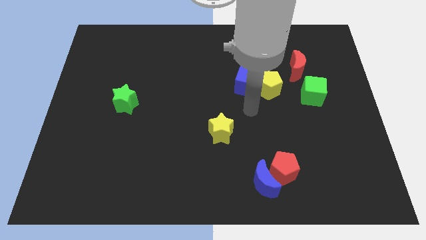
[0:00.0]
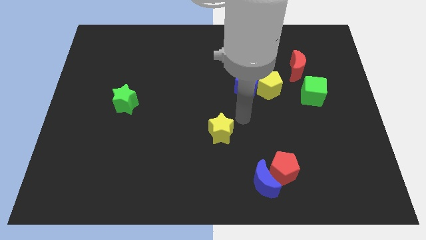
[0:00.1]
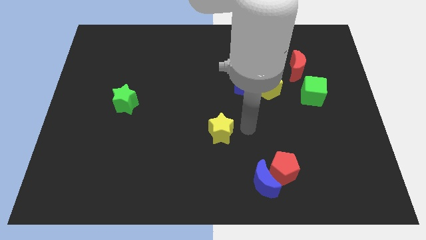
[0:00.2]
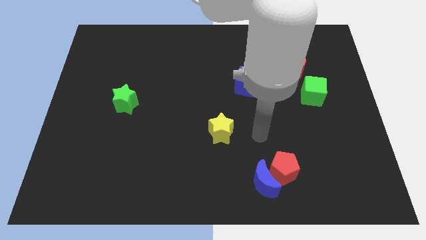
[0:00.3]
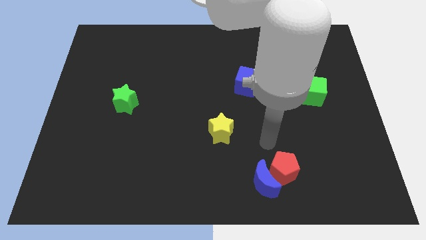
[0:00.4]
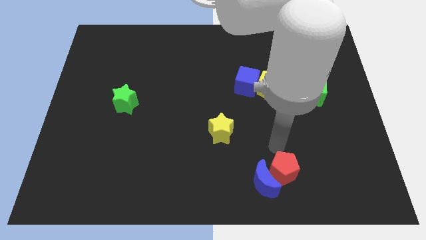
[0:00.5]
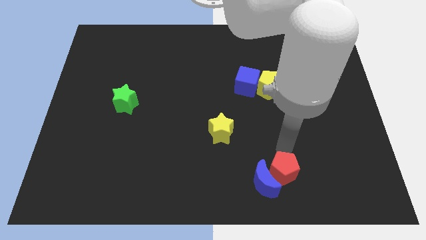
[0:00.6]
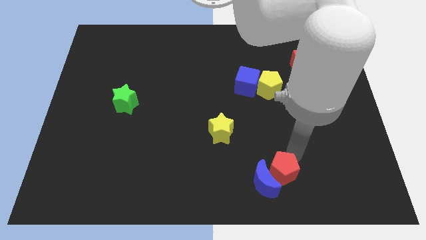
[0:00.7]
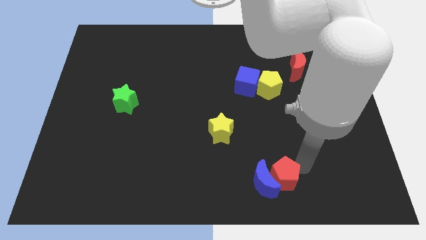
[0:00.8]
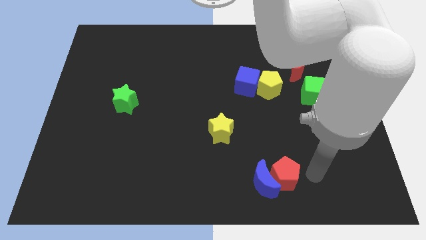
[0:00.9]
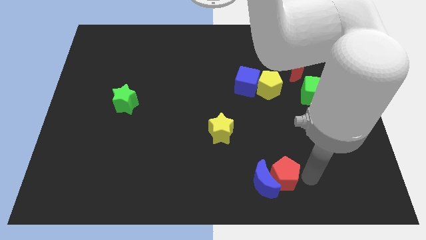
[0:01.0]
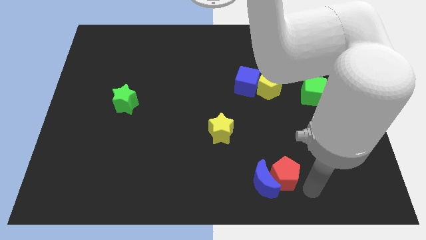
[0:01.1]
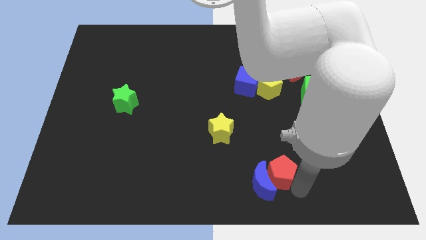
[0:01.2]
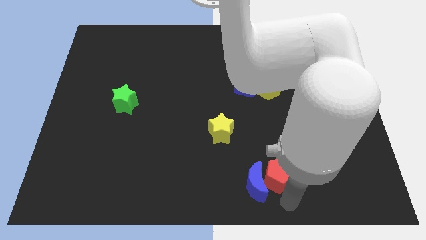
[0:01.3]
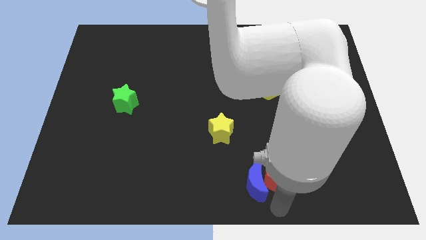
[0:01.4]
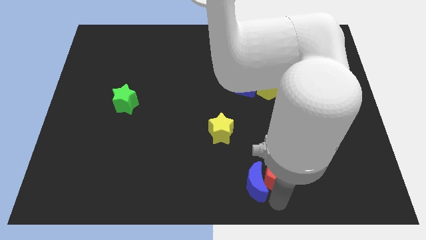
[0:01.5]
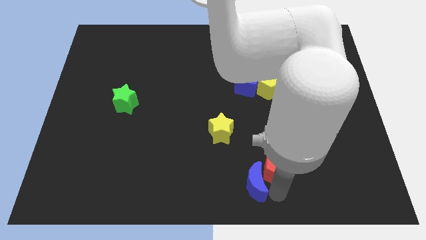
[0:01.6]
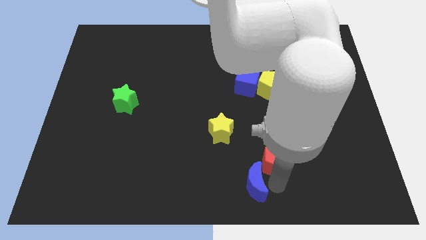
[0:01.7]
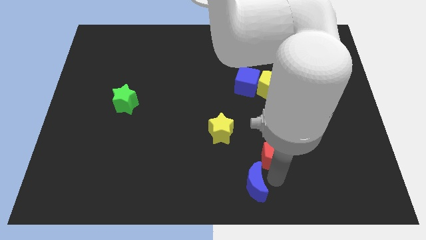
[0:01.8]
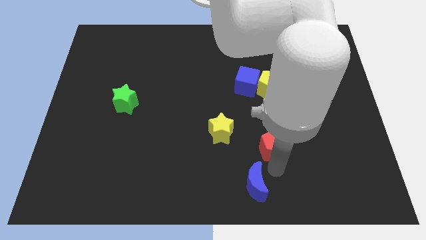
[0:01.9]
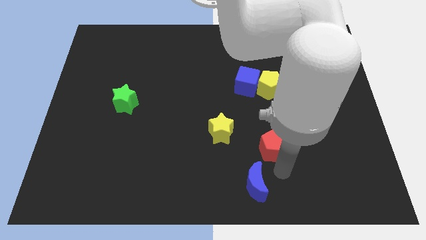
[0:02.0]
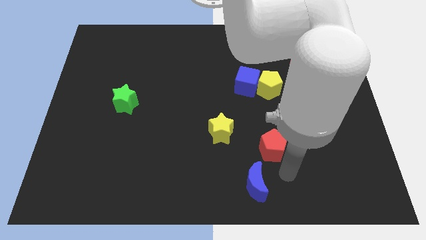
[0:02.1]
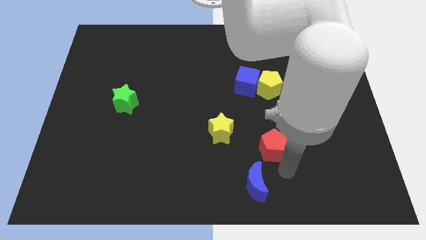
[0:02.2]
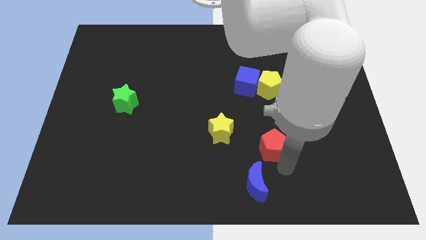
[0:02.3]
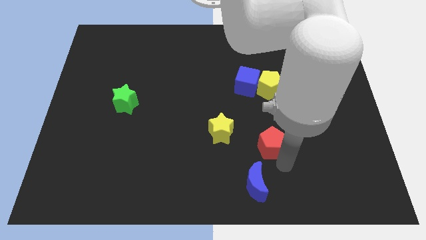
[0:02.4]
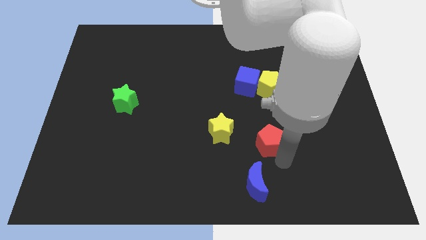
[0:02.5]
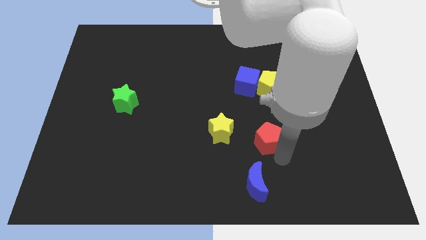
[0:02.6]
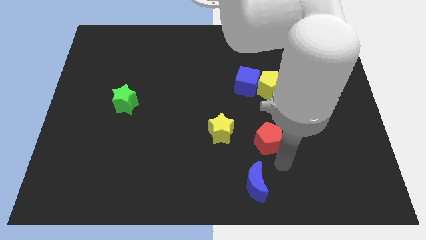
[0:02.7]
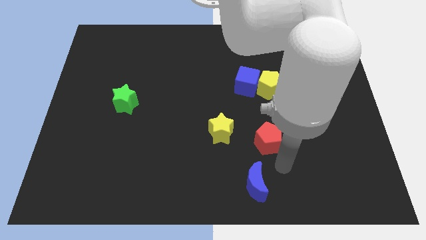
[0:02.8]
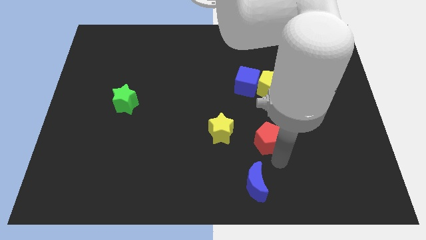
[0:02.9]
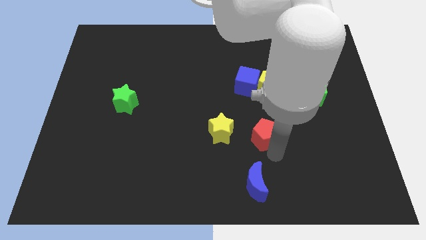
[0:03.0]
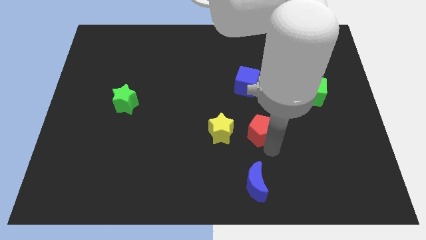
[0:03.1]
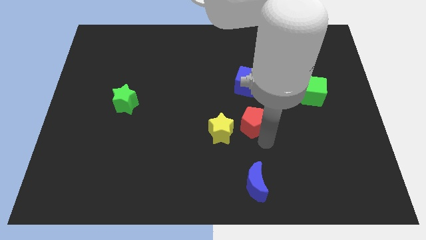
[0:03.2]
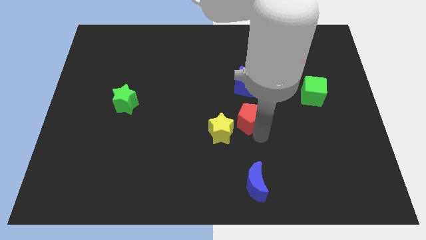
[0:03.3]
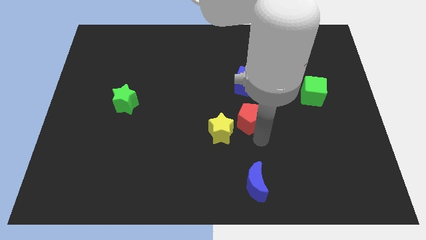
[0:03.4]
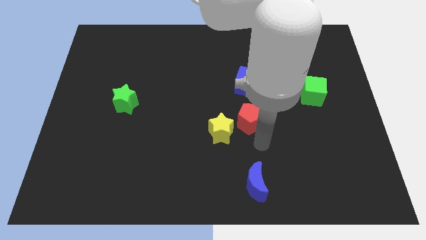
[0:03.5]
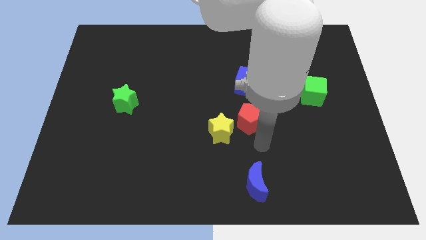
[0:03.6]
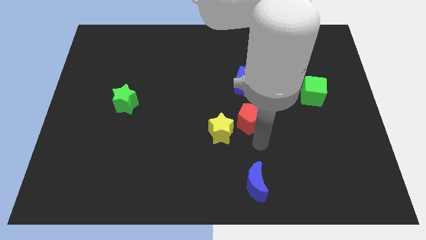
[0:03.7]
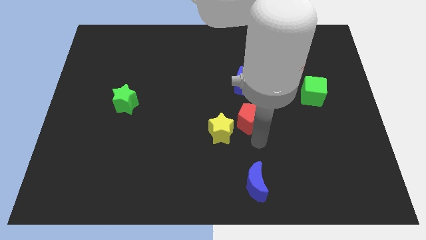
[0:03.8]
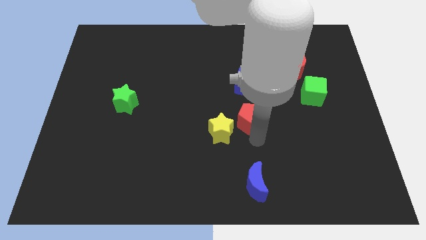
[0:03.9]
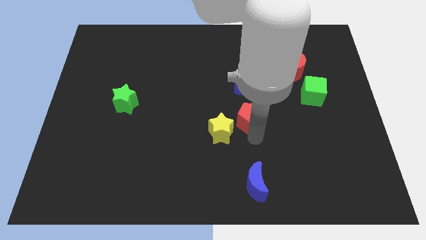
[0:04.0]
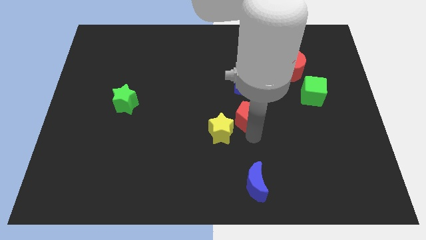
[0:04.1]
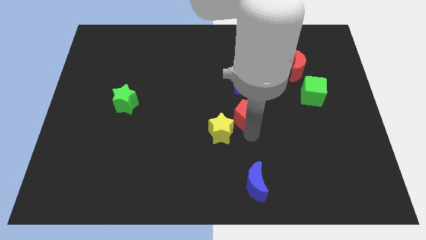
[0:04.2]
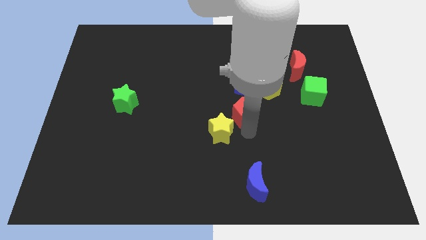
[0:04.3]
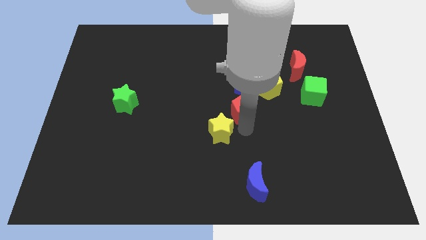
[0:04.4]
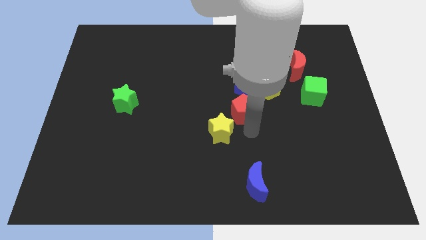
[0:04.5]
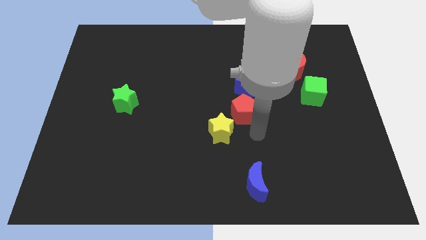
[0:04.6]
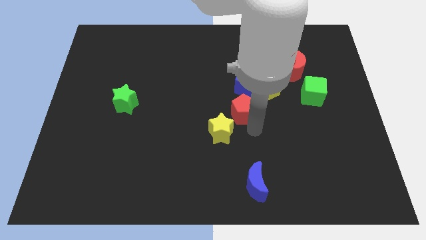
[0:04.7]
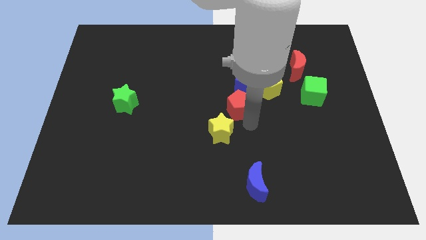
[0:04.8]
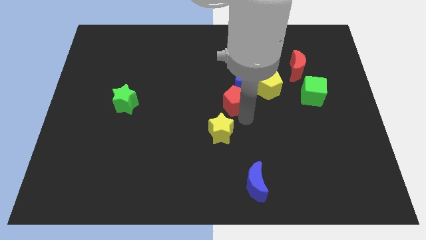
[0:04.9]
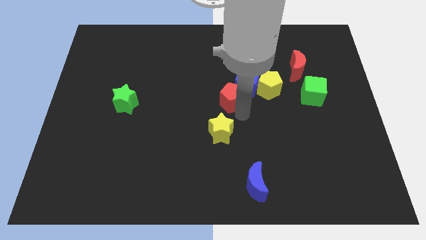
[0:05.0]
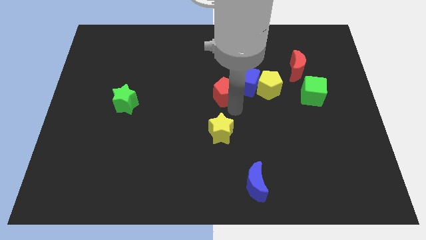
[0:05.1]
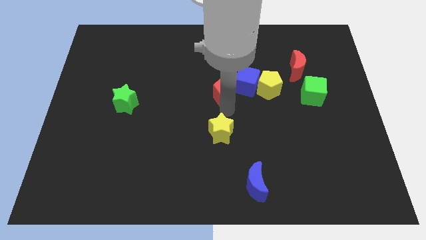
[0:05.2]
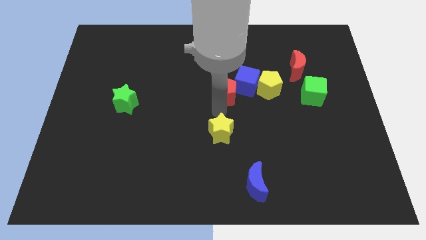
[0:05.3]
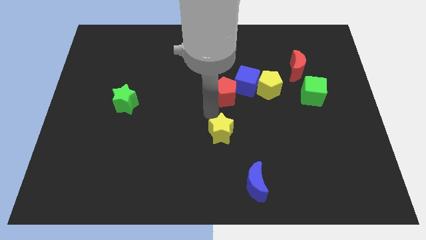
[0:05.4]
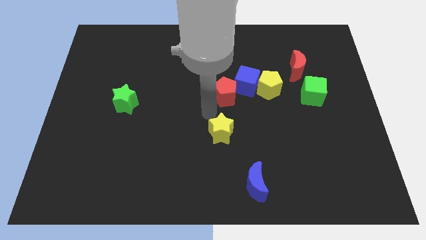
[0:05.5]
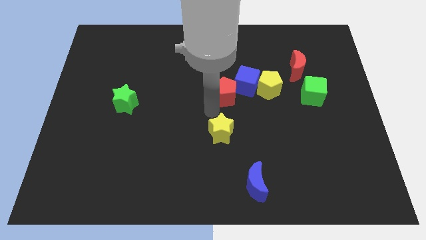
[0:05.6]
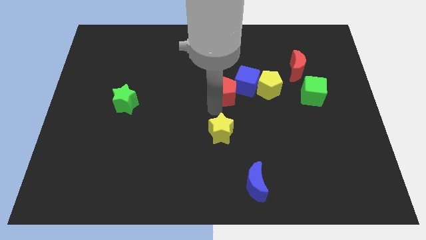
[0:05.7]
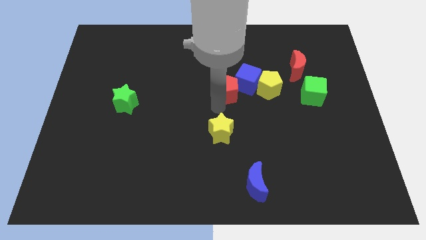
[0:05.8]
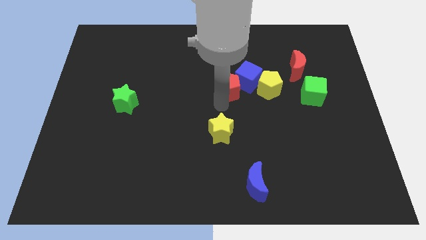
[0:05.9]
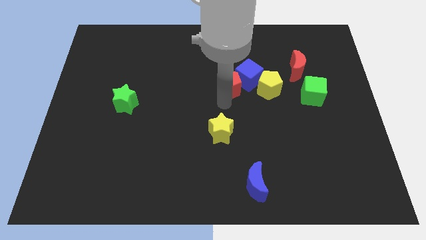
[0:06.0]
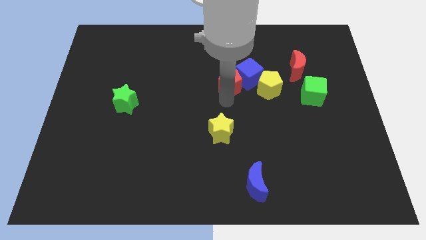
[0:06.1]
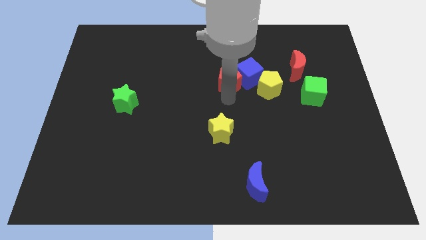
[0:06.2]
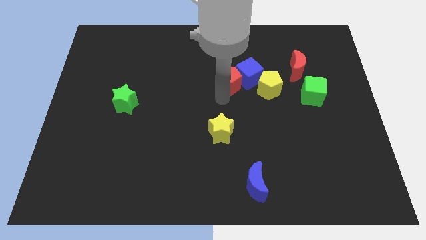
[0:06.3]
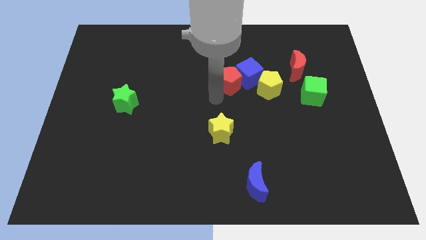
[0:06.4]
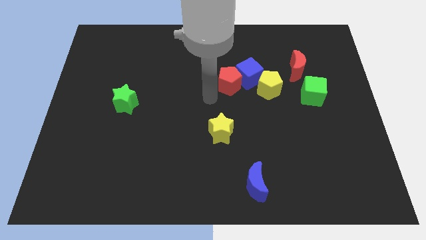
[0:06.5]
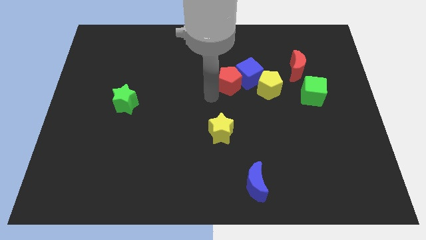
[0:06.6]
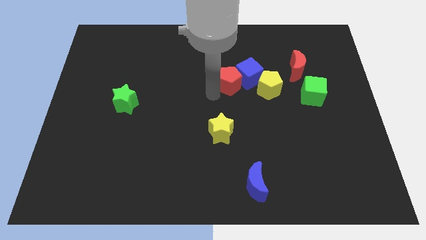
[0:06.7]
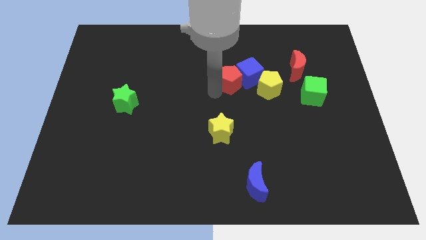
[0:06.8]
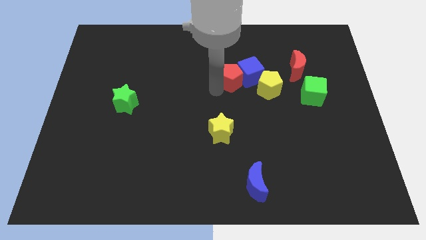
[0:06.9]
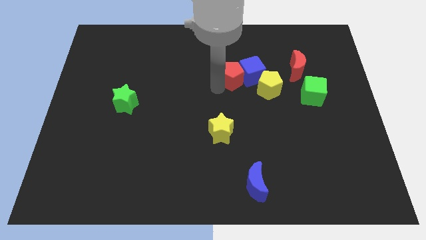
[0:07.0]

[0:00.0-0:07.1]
slide the red pentagon diagonally up and to the left of the yellow pentagon

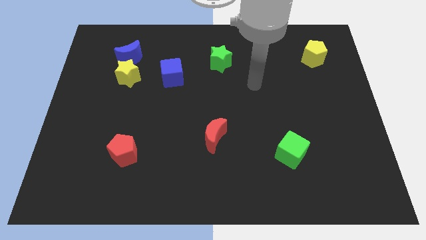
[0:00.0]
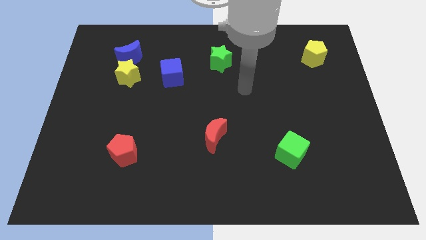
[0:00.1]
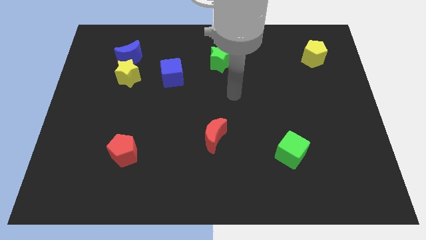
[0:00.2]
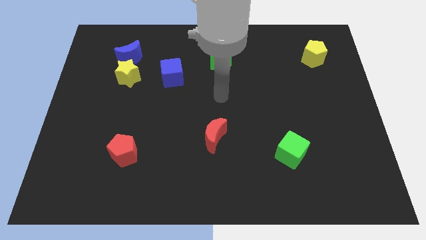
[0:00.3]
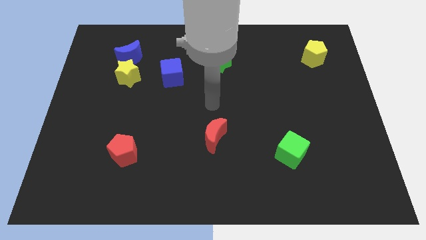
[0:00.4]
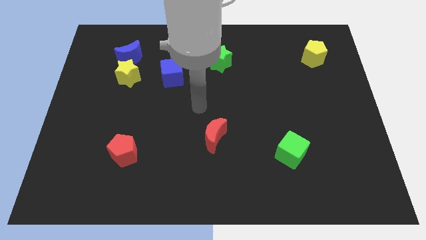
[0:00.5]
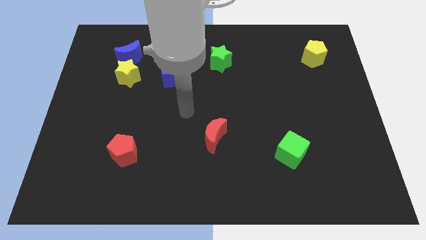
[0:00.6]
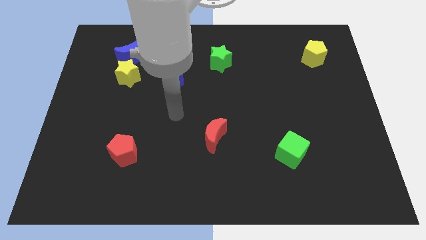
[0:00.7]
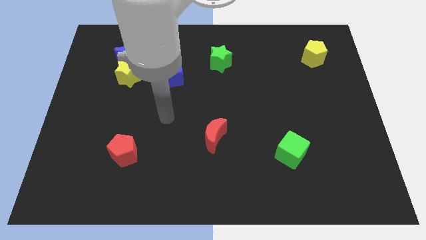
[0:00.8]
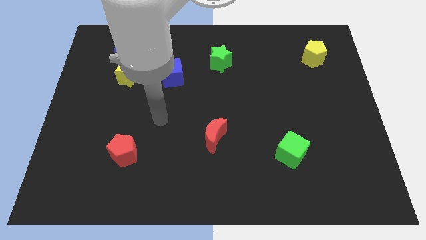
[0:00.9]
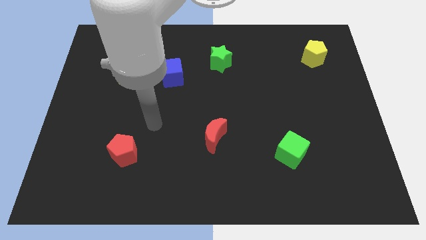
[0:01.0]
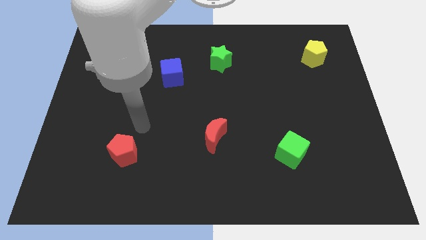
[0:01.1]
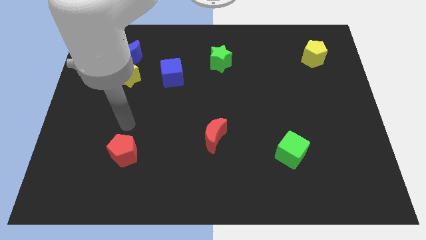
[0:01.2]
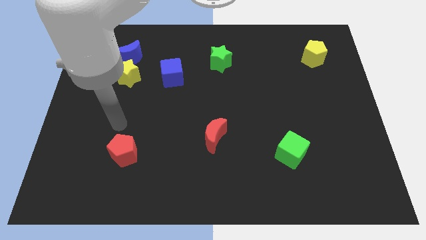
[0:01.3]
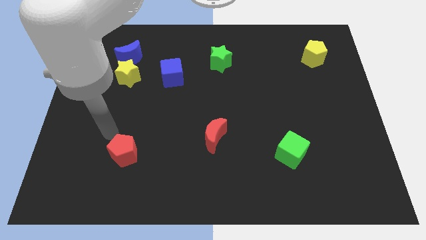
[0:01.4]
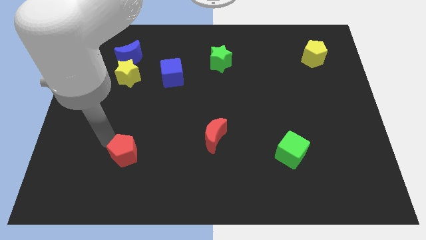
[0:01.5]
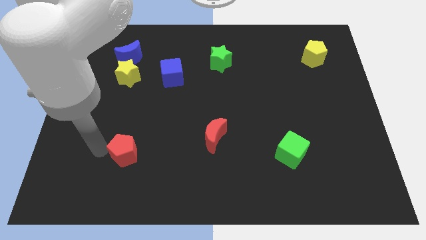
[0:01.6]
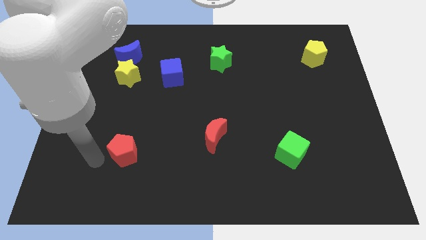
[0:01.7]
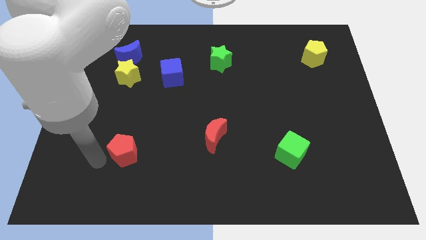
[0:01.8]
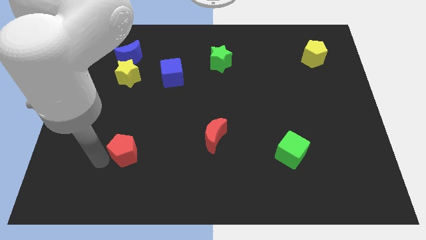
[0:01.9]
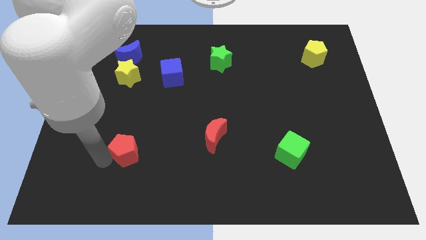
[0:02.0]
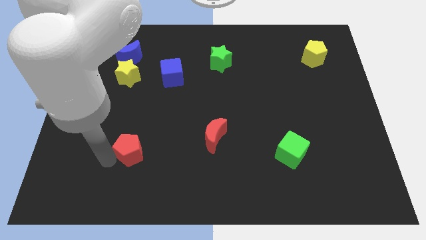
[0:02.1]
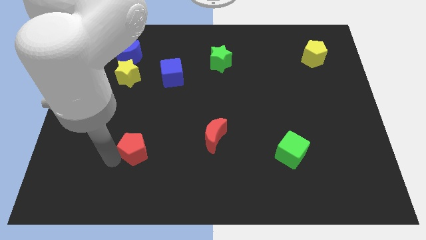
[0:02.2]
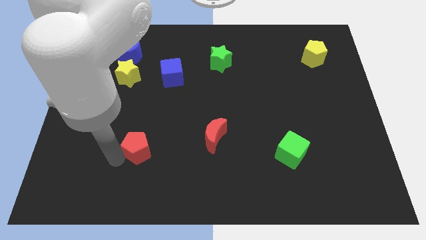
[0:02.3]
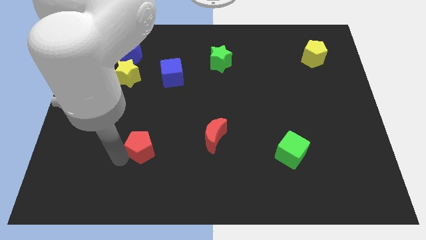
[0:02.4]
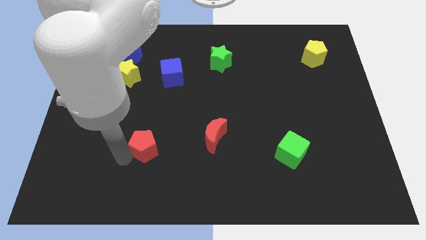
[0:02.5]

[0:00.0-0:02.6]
push the red pentagon just left of the red moon
